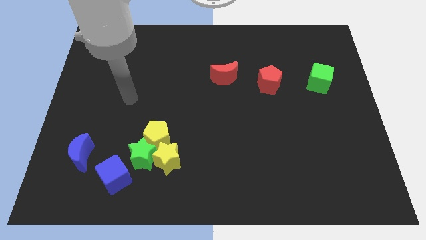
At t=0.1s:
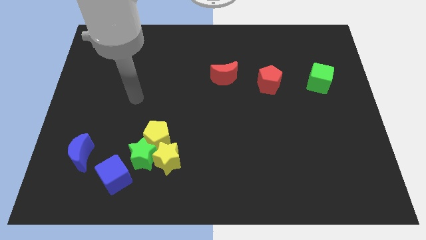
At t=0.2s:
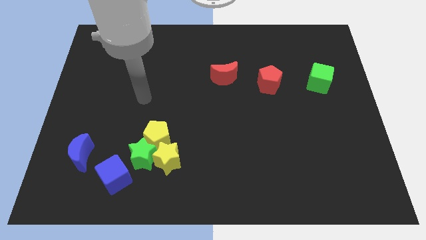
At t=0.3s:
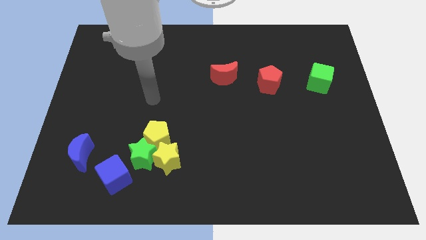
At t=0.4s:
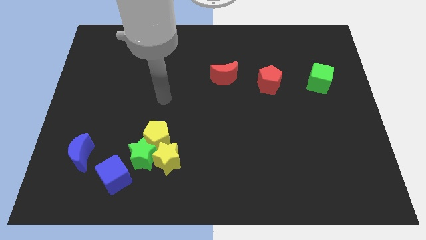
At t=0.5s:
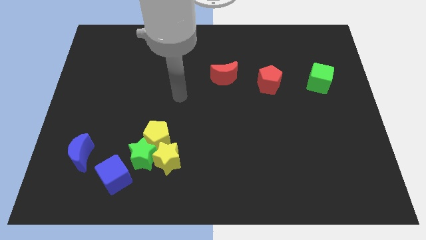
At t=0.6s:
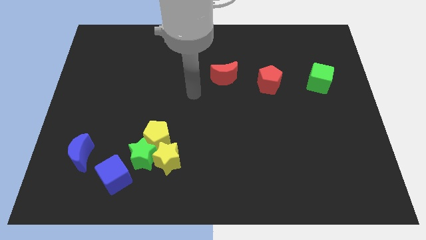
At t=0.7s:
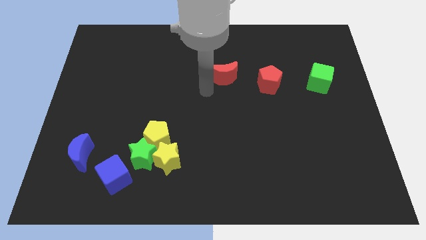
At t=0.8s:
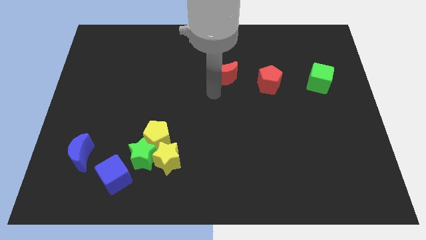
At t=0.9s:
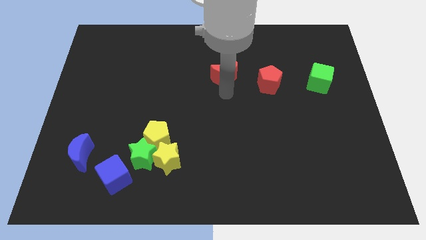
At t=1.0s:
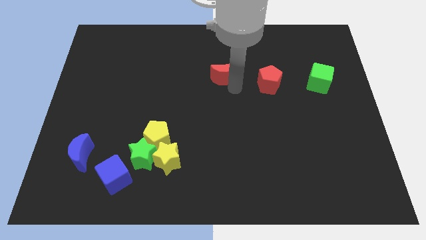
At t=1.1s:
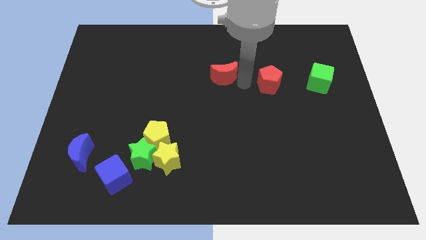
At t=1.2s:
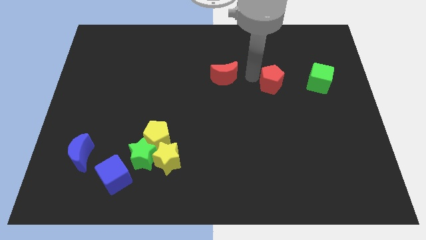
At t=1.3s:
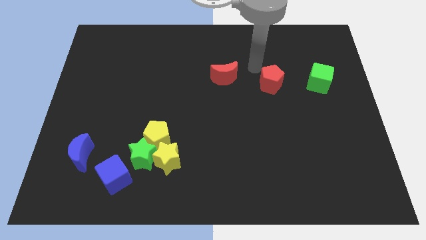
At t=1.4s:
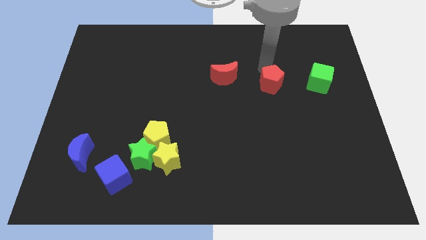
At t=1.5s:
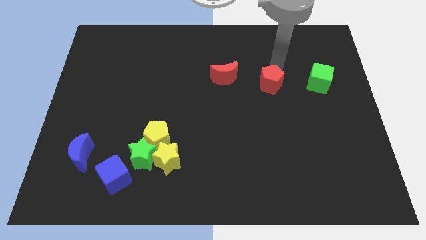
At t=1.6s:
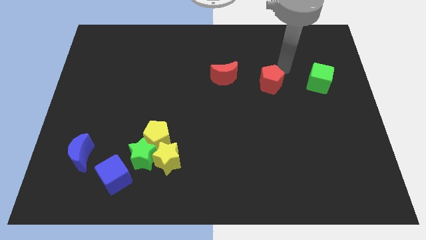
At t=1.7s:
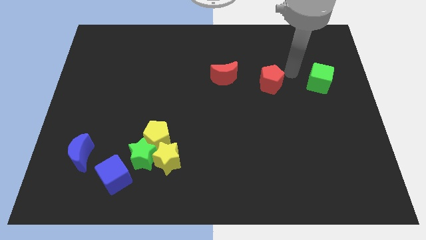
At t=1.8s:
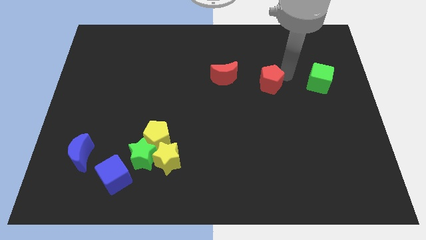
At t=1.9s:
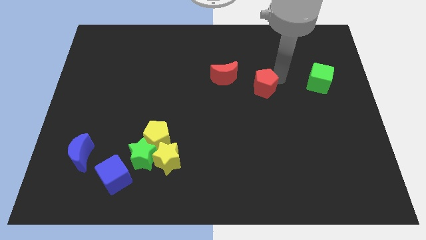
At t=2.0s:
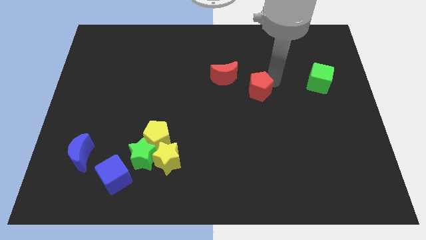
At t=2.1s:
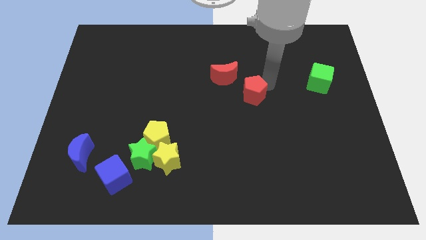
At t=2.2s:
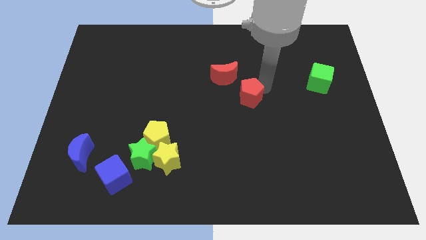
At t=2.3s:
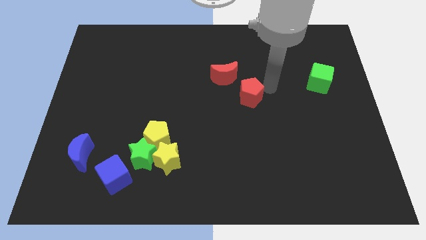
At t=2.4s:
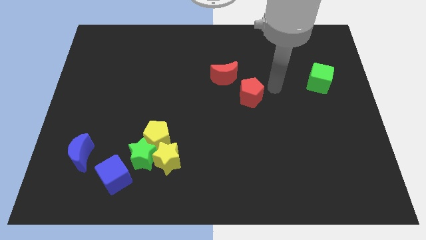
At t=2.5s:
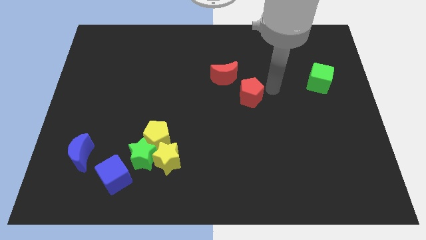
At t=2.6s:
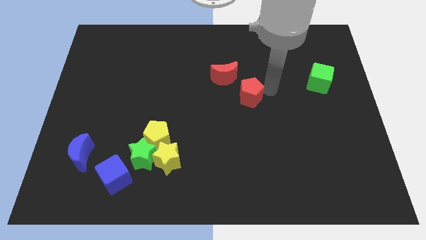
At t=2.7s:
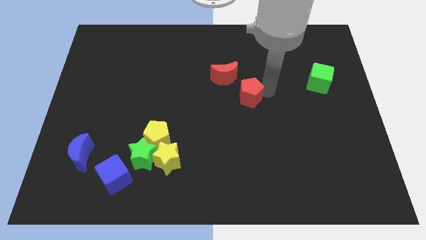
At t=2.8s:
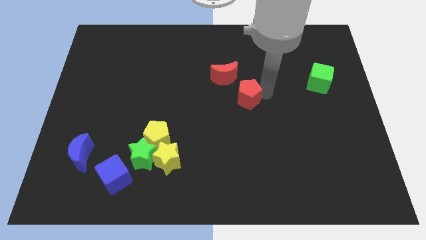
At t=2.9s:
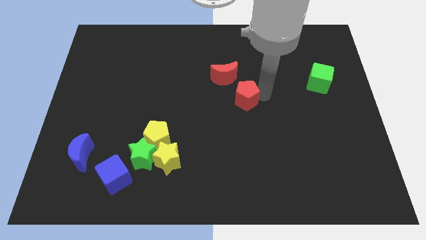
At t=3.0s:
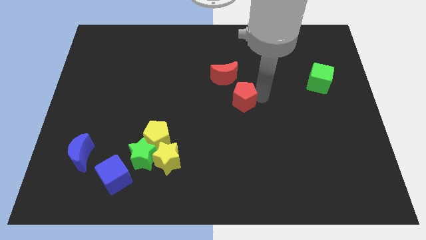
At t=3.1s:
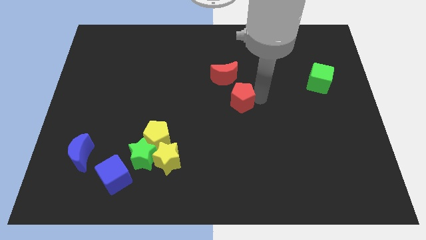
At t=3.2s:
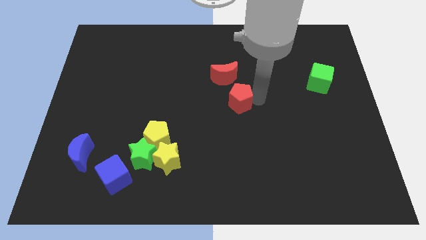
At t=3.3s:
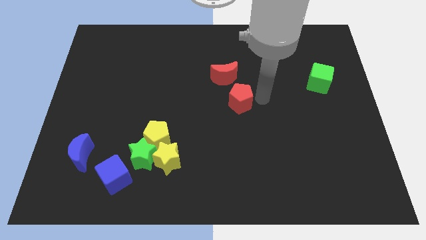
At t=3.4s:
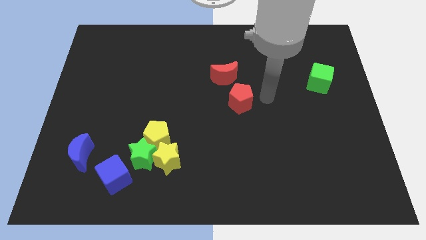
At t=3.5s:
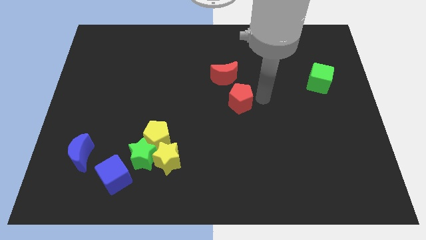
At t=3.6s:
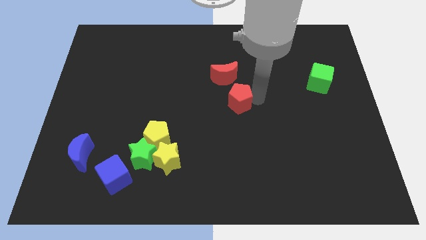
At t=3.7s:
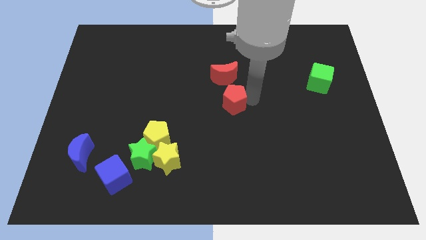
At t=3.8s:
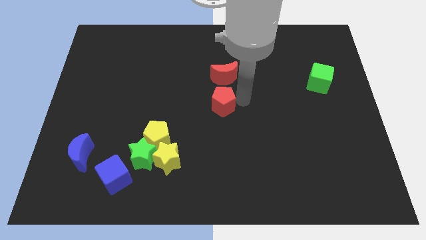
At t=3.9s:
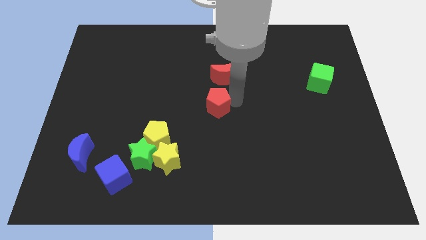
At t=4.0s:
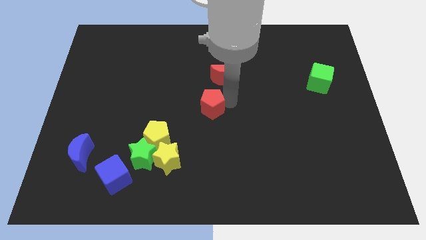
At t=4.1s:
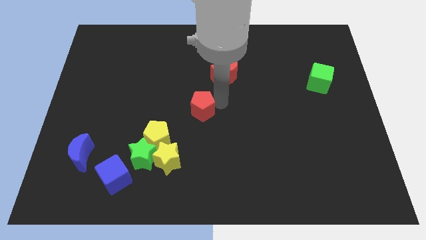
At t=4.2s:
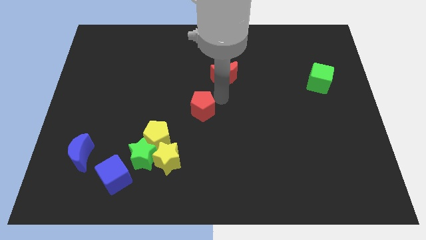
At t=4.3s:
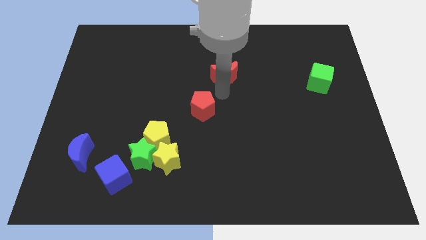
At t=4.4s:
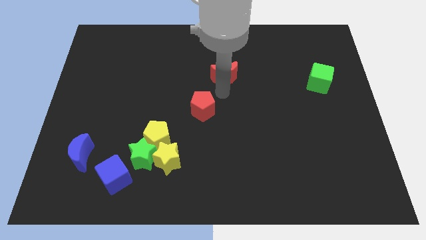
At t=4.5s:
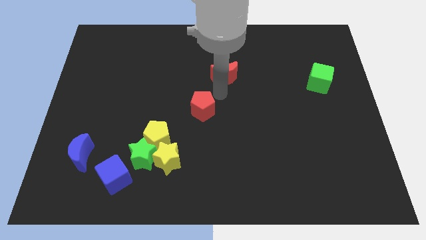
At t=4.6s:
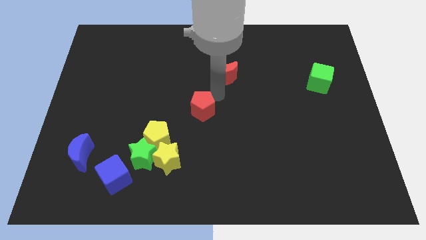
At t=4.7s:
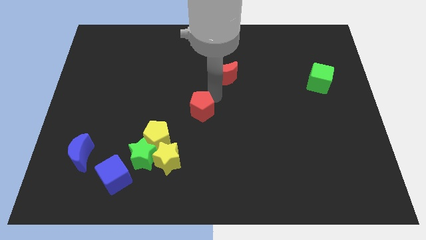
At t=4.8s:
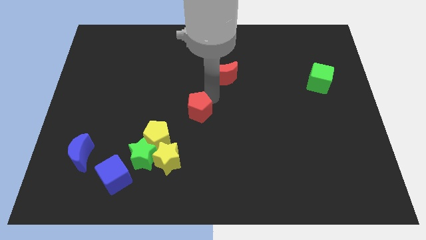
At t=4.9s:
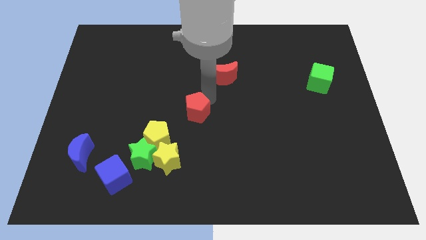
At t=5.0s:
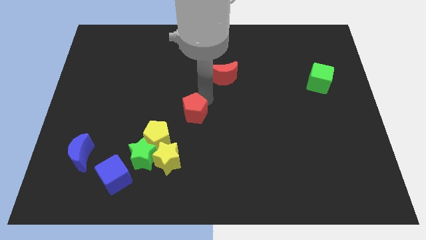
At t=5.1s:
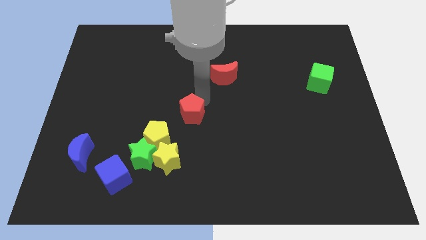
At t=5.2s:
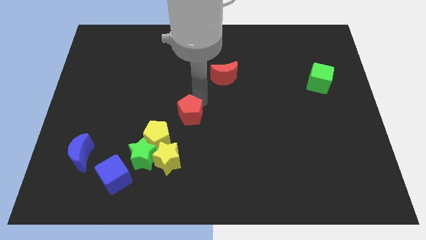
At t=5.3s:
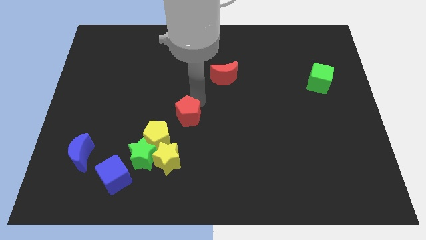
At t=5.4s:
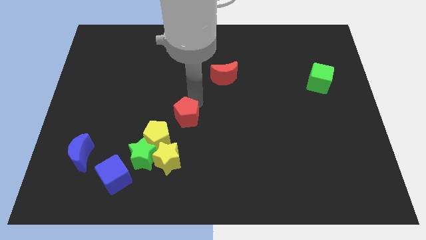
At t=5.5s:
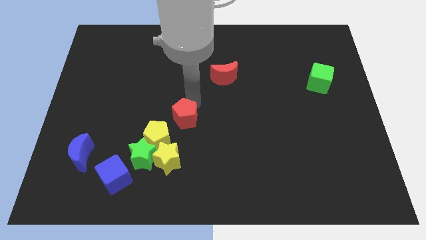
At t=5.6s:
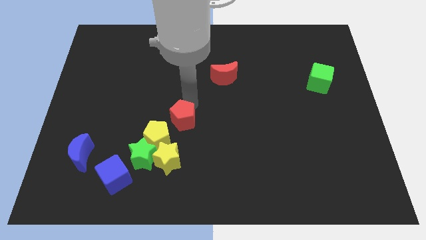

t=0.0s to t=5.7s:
slide the red pentagon diagonally up and to the right of the green star

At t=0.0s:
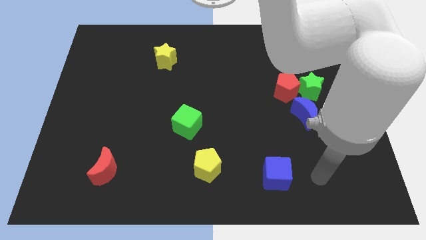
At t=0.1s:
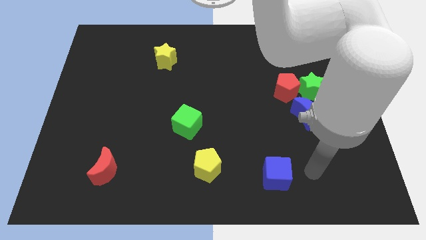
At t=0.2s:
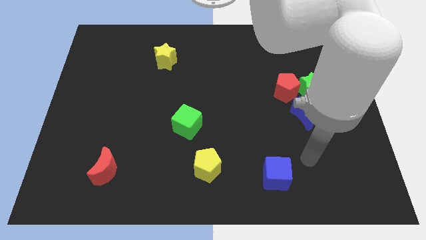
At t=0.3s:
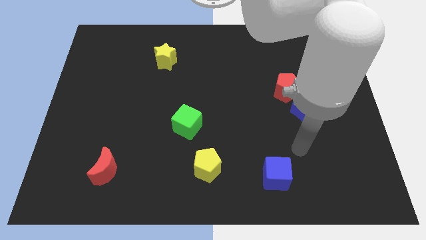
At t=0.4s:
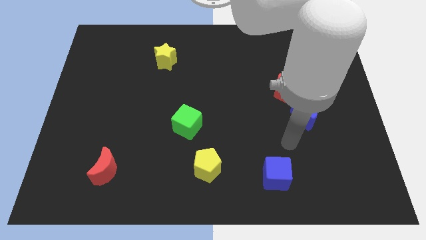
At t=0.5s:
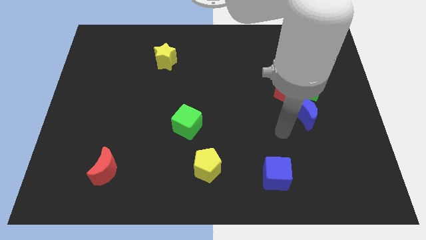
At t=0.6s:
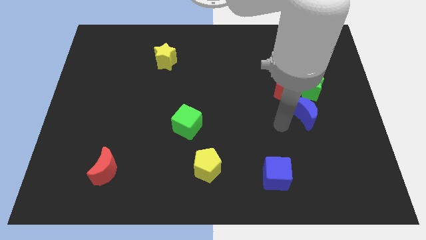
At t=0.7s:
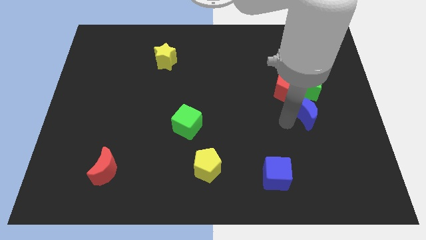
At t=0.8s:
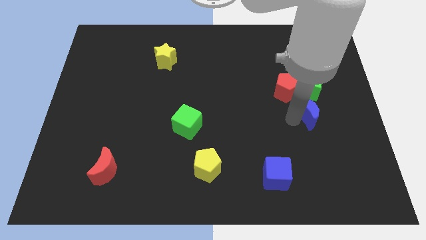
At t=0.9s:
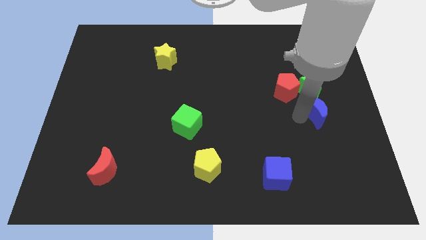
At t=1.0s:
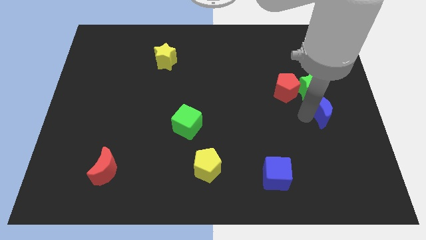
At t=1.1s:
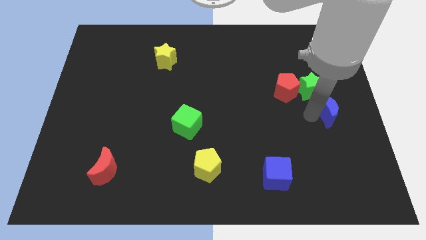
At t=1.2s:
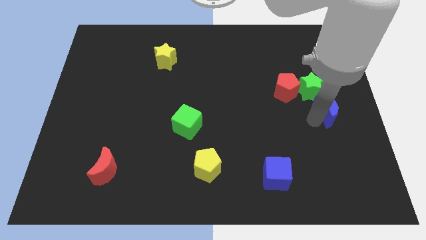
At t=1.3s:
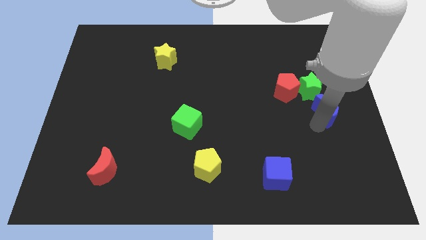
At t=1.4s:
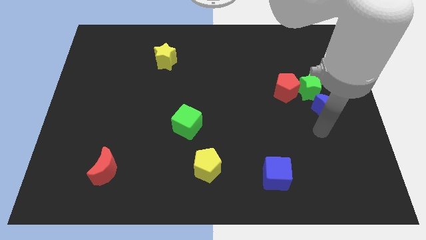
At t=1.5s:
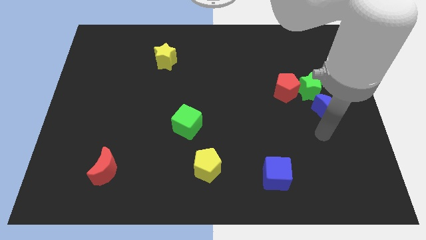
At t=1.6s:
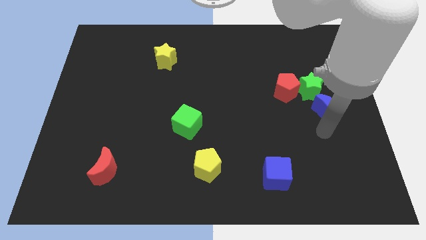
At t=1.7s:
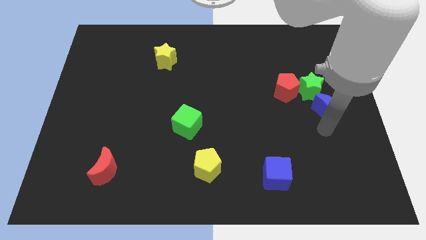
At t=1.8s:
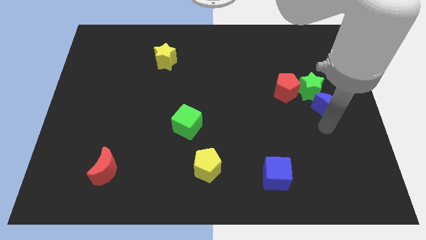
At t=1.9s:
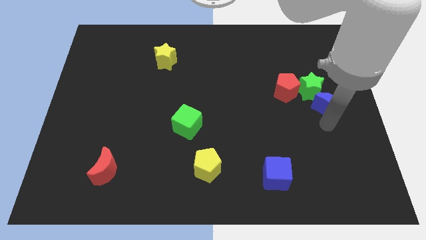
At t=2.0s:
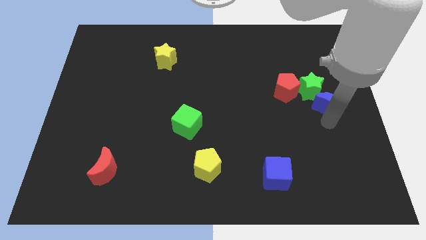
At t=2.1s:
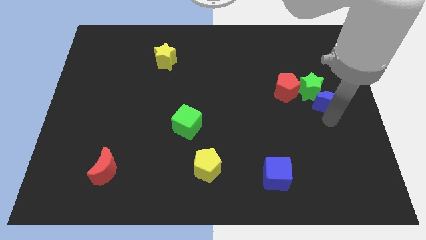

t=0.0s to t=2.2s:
move the blue moon right of the red pentagon

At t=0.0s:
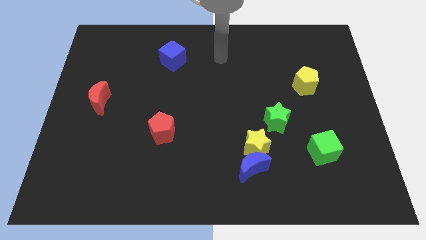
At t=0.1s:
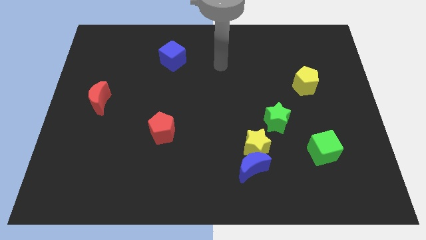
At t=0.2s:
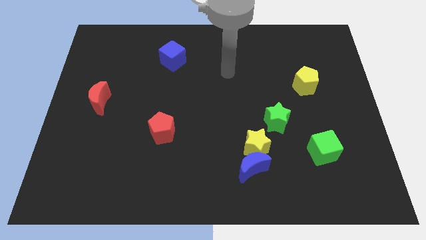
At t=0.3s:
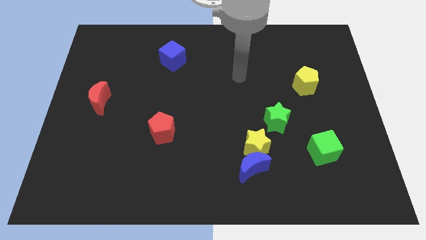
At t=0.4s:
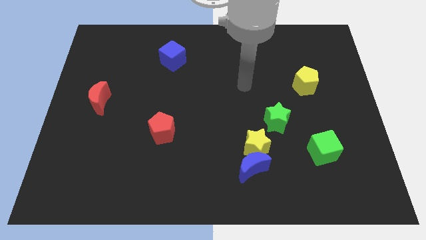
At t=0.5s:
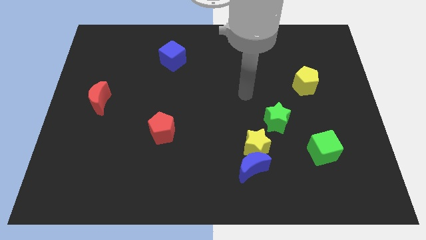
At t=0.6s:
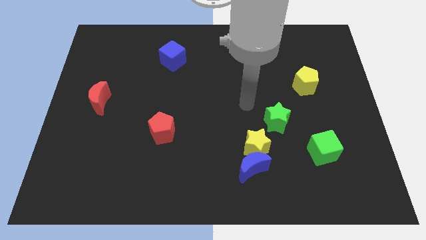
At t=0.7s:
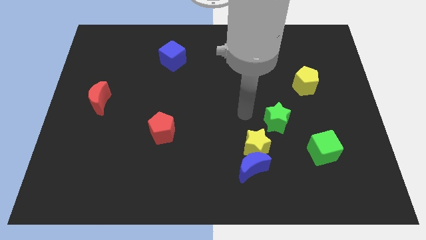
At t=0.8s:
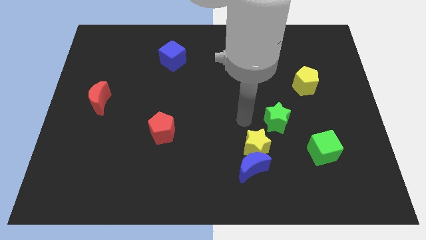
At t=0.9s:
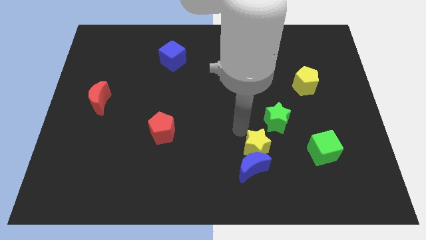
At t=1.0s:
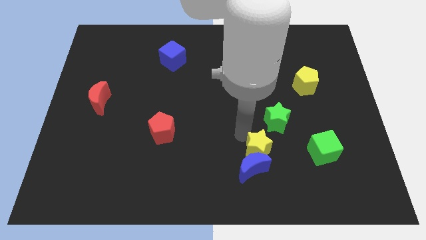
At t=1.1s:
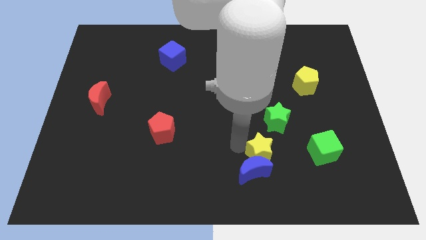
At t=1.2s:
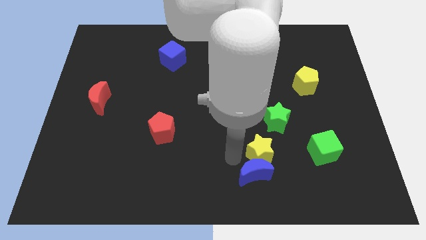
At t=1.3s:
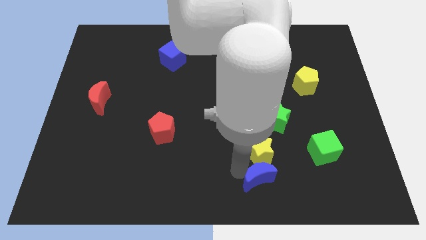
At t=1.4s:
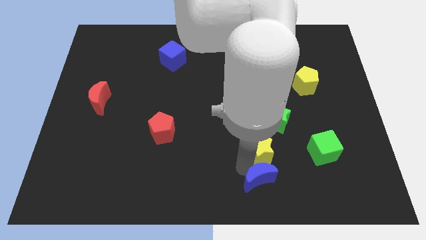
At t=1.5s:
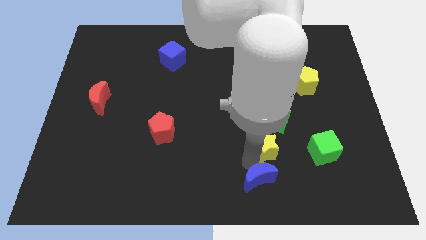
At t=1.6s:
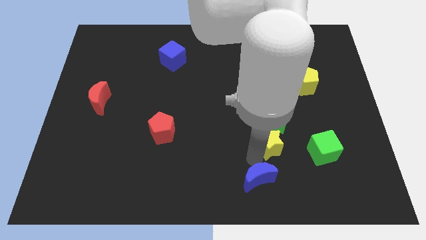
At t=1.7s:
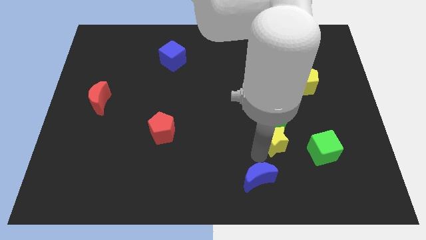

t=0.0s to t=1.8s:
move the yellow star to the bottom right side of the green star
